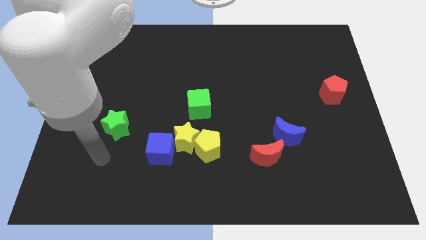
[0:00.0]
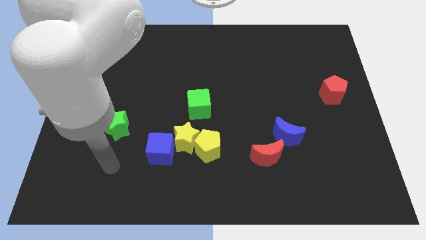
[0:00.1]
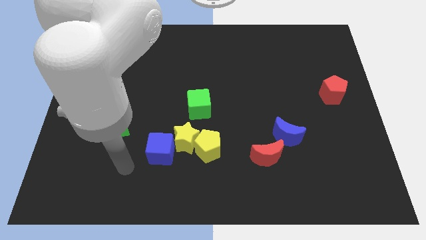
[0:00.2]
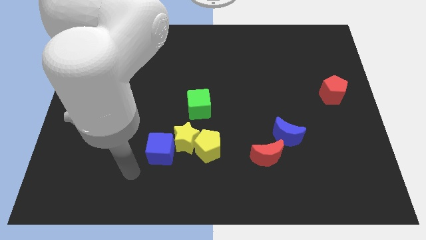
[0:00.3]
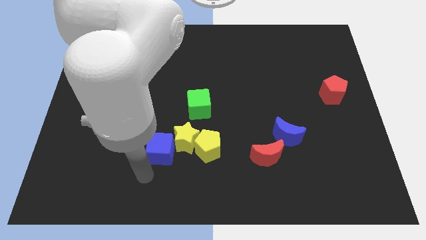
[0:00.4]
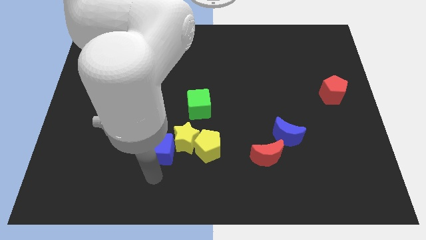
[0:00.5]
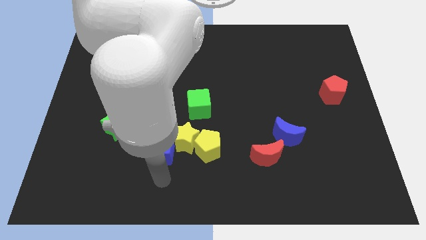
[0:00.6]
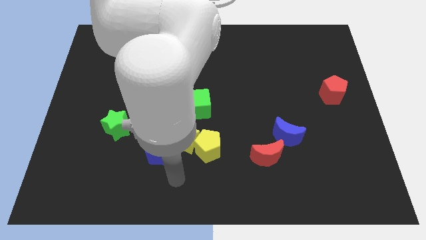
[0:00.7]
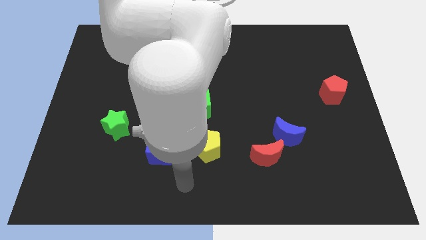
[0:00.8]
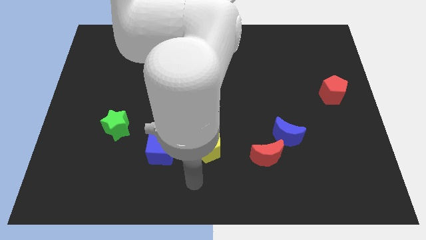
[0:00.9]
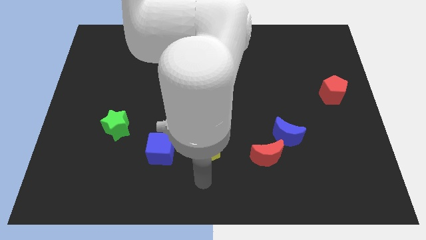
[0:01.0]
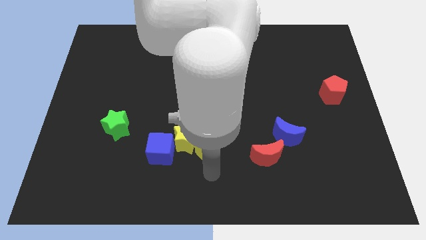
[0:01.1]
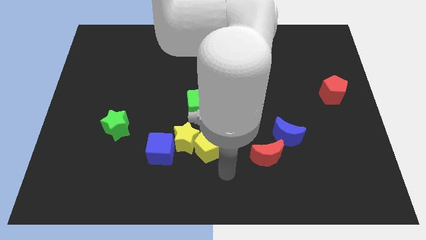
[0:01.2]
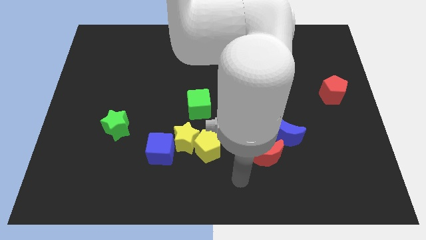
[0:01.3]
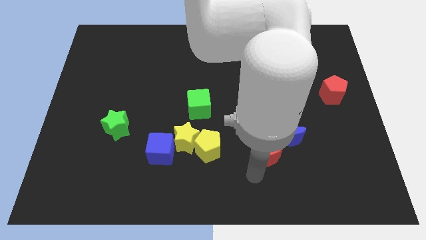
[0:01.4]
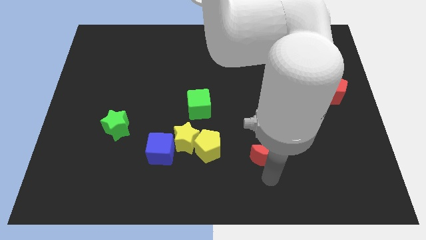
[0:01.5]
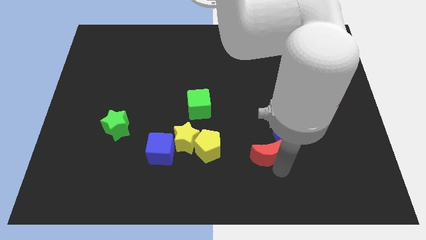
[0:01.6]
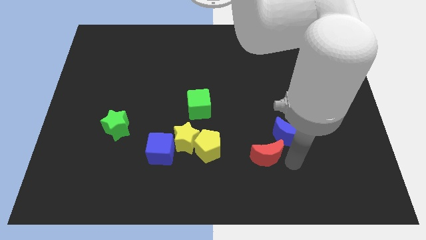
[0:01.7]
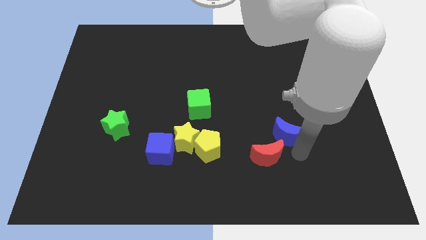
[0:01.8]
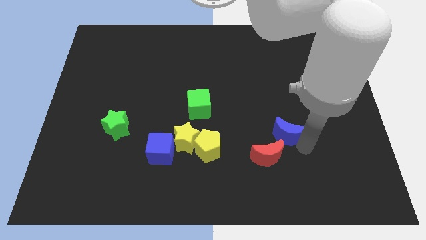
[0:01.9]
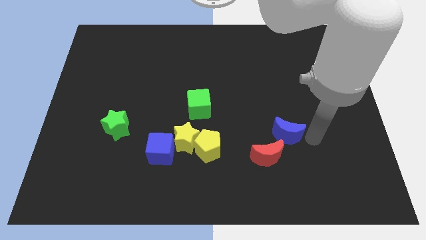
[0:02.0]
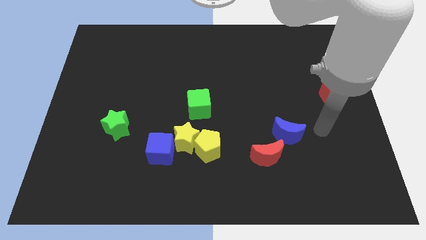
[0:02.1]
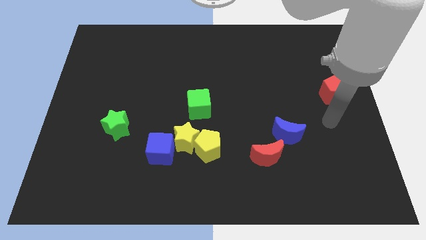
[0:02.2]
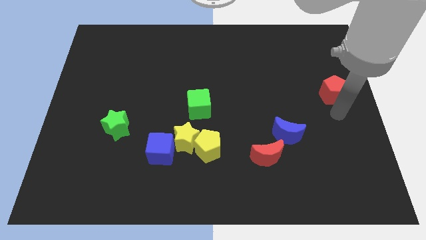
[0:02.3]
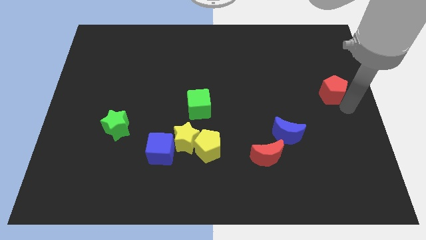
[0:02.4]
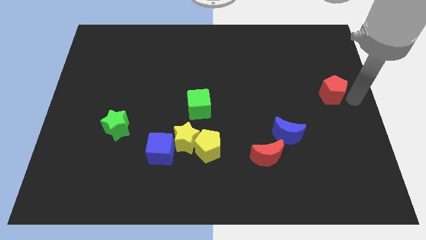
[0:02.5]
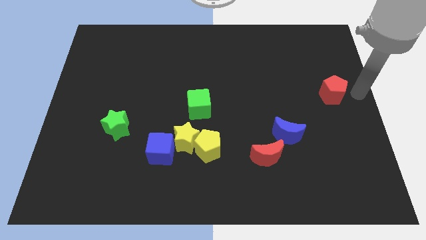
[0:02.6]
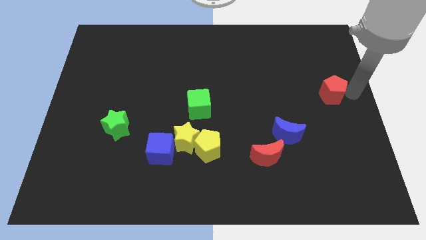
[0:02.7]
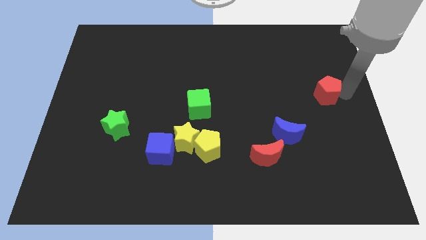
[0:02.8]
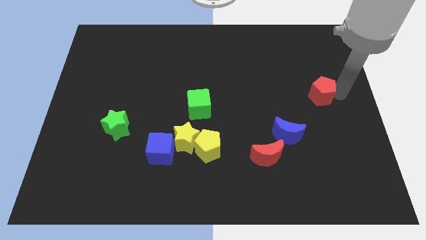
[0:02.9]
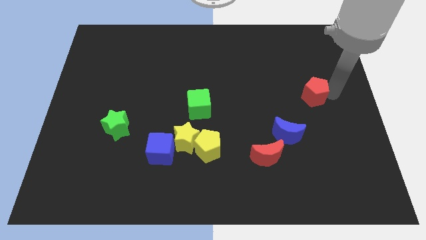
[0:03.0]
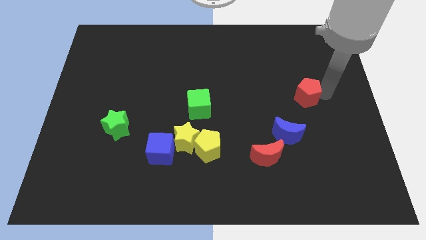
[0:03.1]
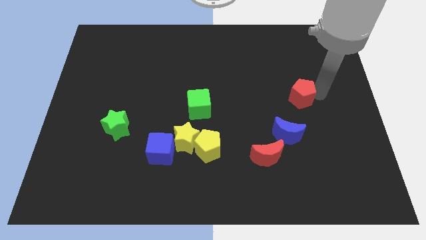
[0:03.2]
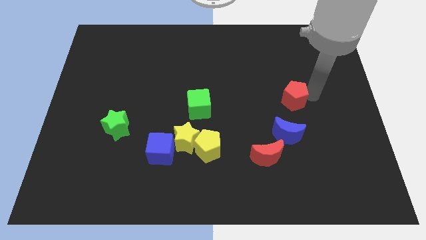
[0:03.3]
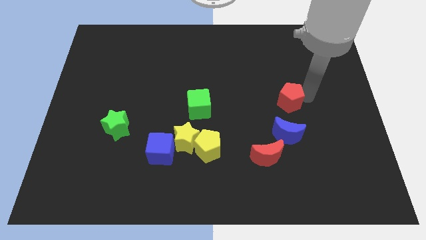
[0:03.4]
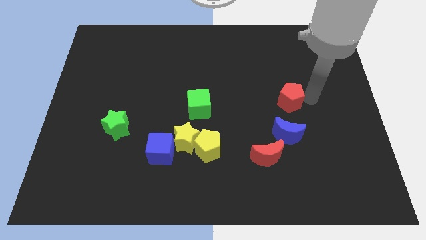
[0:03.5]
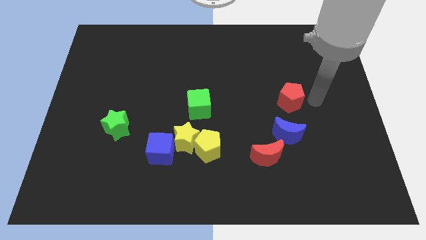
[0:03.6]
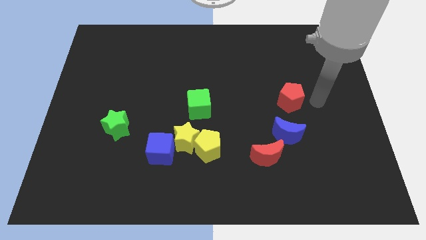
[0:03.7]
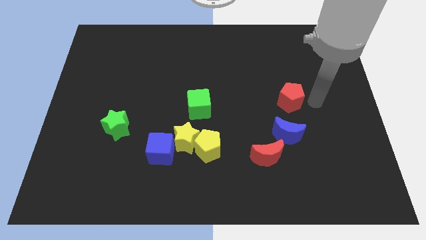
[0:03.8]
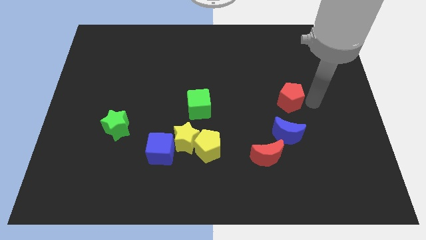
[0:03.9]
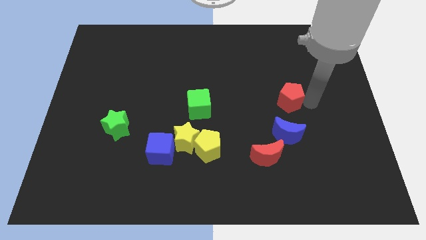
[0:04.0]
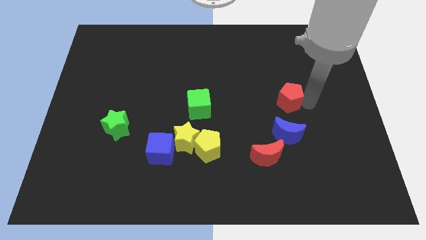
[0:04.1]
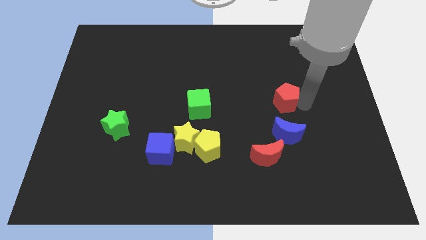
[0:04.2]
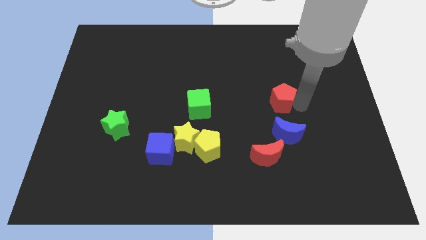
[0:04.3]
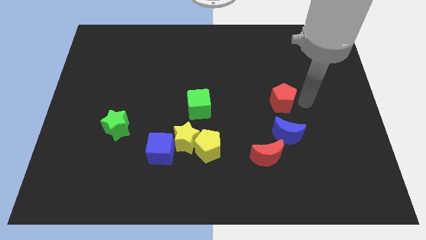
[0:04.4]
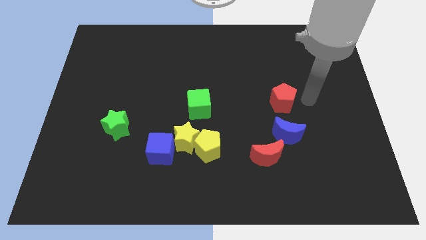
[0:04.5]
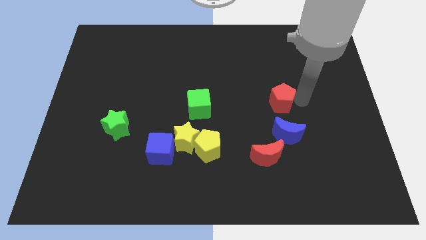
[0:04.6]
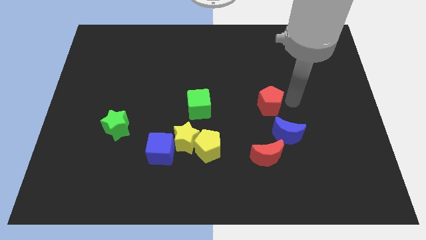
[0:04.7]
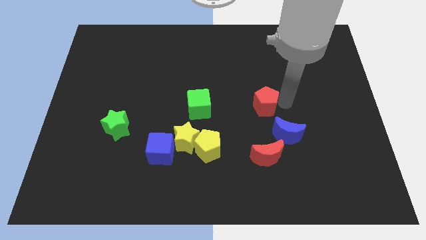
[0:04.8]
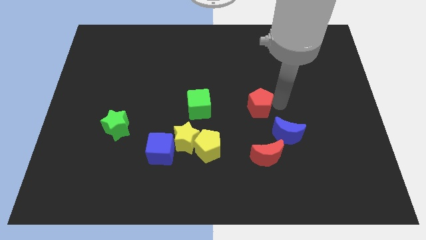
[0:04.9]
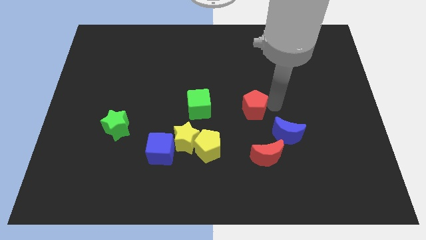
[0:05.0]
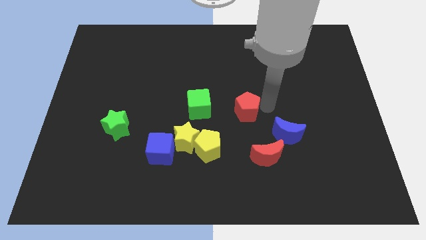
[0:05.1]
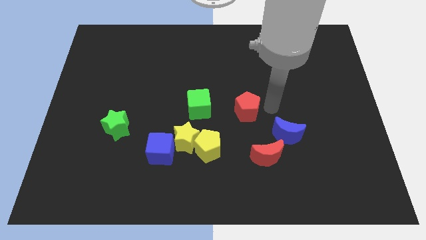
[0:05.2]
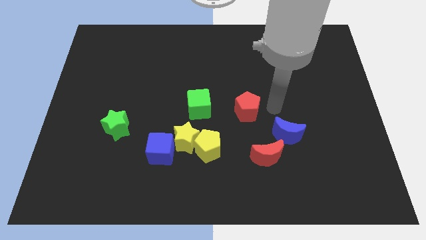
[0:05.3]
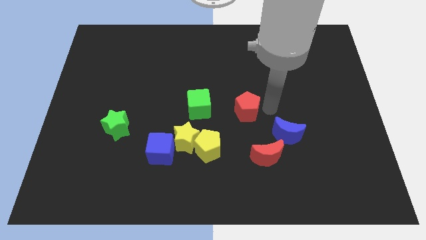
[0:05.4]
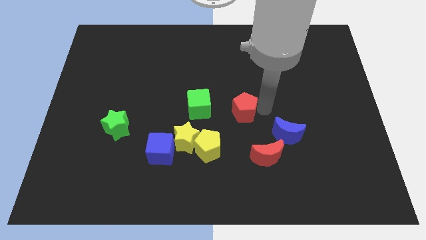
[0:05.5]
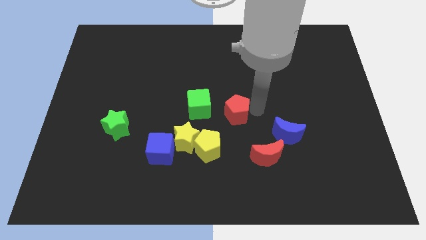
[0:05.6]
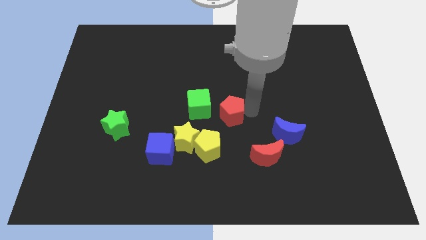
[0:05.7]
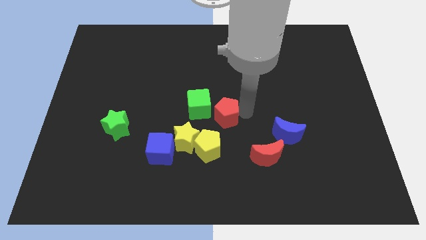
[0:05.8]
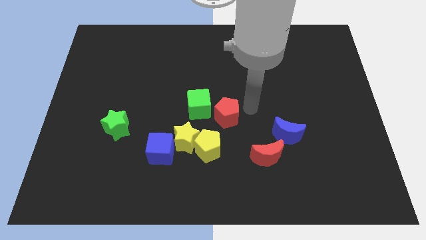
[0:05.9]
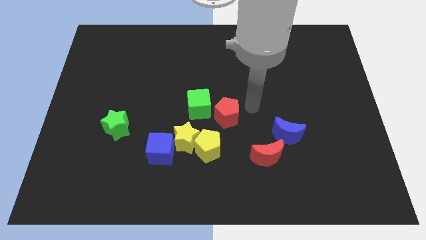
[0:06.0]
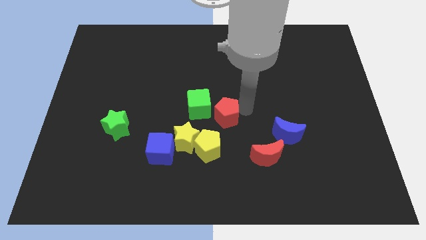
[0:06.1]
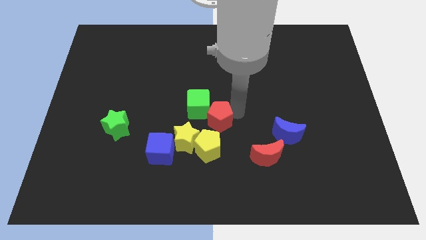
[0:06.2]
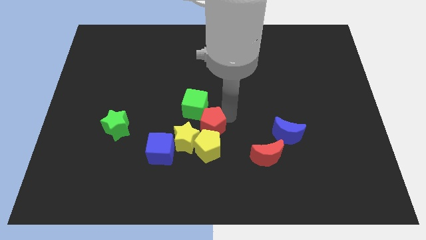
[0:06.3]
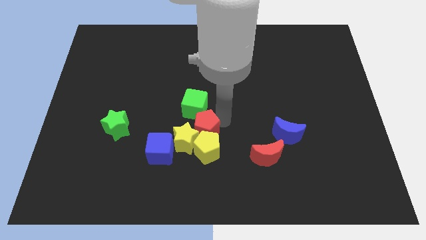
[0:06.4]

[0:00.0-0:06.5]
move the red pentagon to the top right side of the blue cube

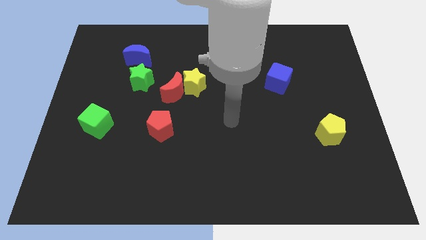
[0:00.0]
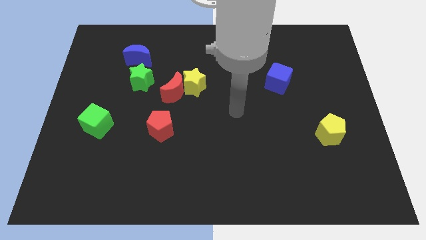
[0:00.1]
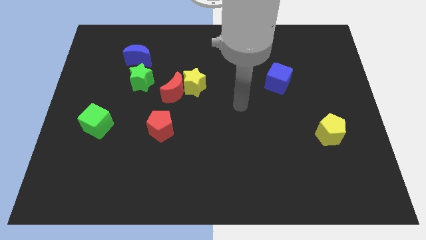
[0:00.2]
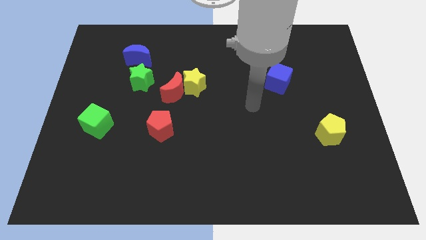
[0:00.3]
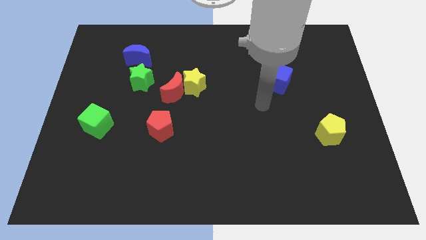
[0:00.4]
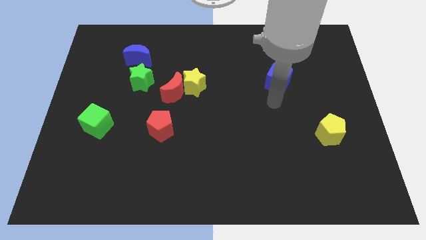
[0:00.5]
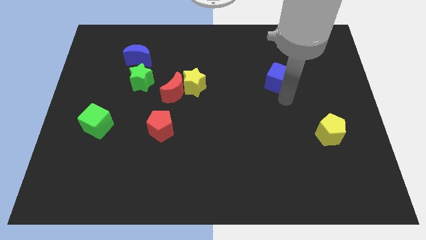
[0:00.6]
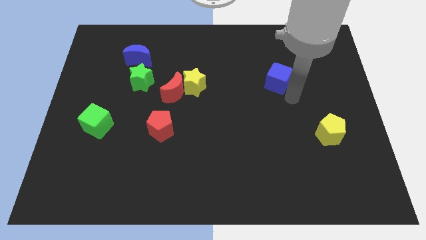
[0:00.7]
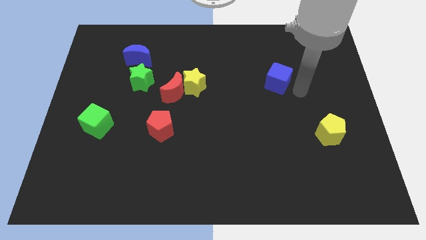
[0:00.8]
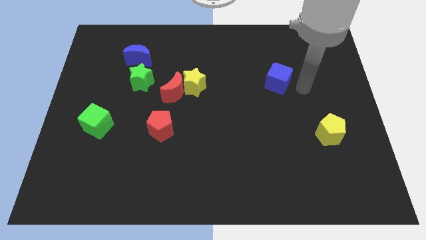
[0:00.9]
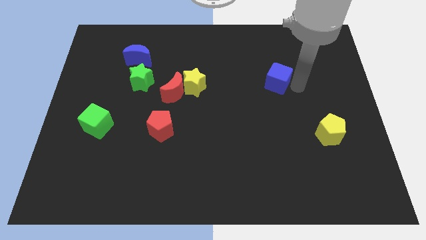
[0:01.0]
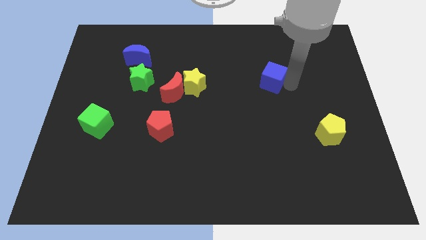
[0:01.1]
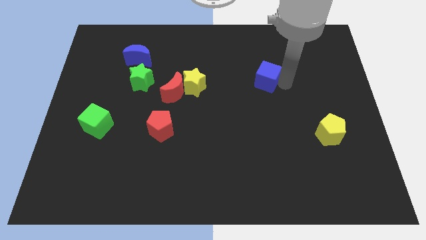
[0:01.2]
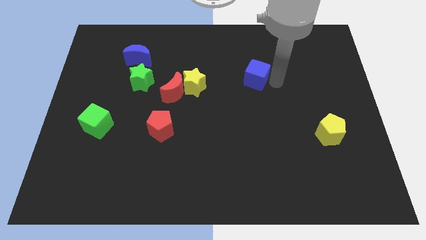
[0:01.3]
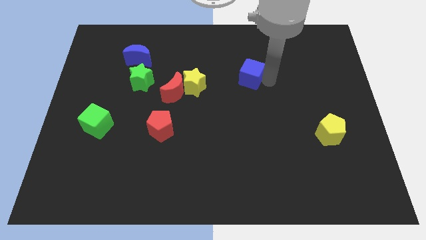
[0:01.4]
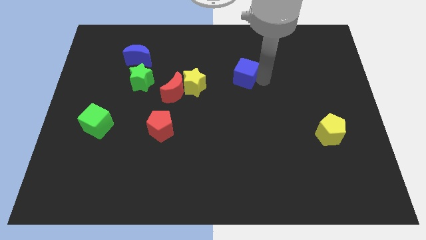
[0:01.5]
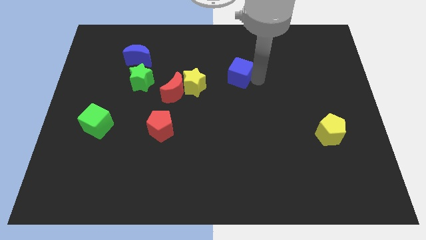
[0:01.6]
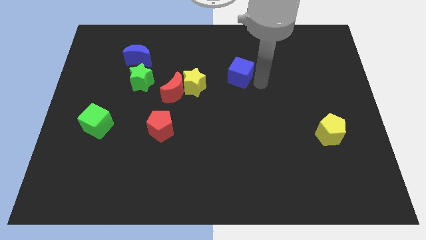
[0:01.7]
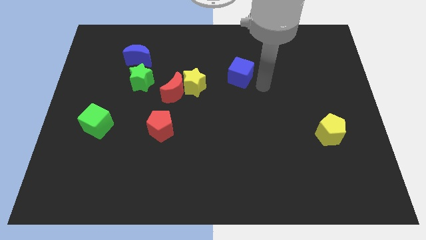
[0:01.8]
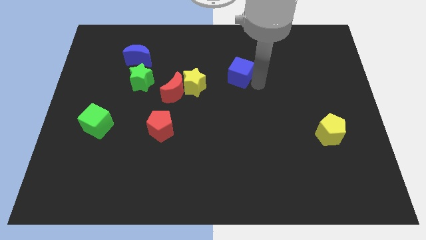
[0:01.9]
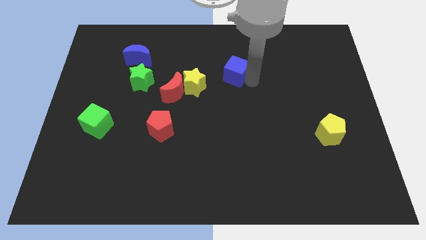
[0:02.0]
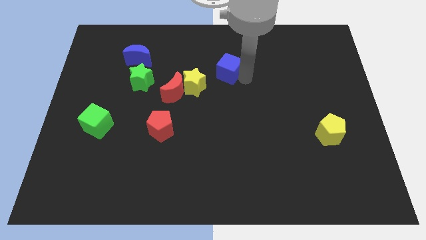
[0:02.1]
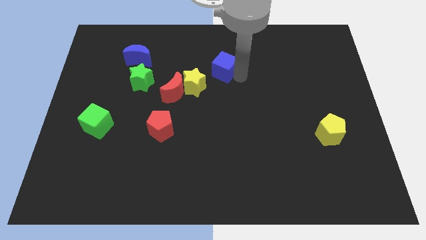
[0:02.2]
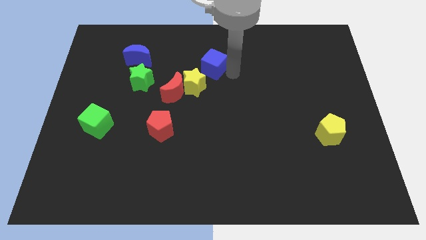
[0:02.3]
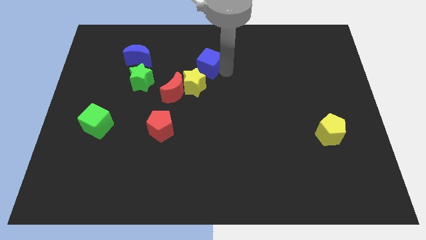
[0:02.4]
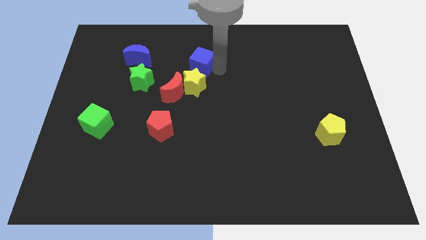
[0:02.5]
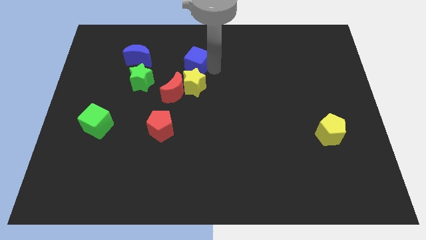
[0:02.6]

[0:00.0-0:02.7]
put the blue cube to the right side of the blue moon
